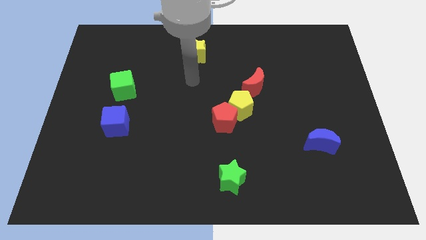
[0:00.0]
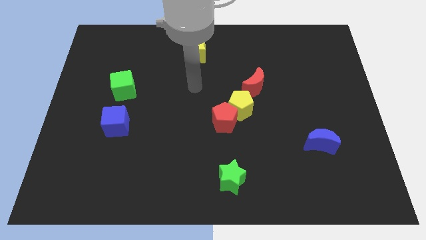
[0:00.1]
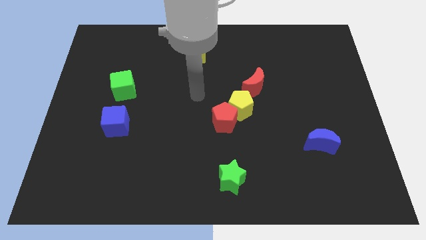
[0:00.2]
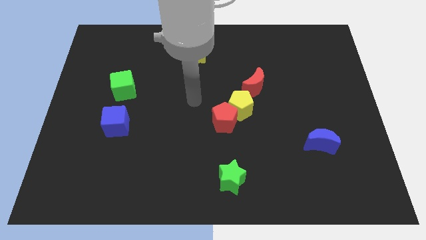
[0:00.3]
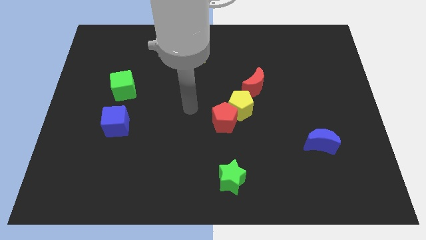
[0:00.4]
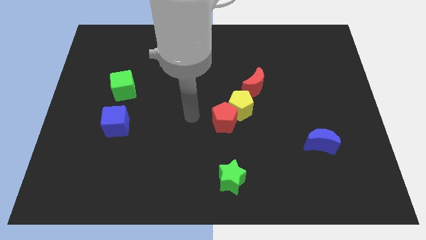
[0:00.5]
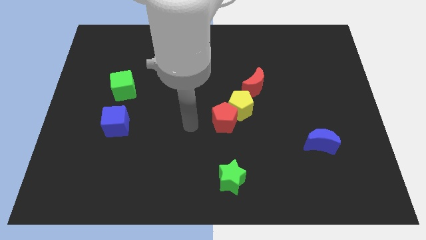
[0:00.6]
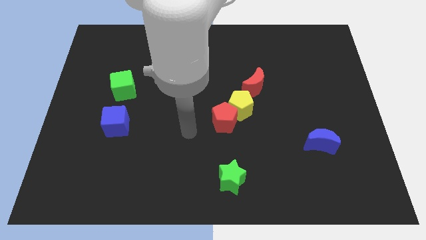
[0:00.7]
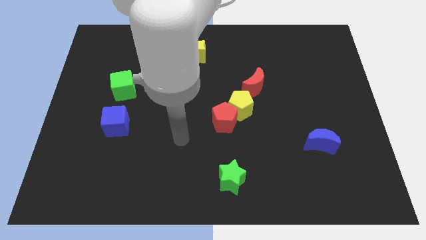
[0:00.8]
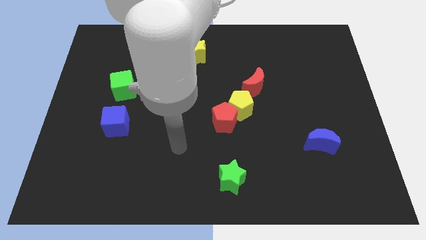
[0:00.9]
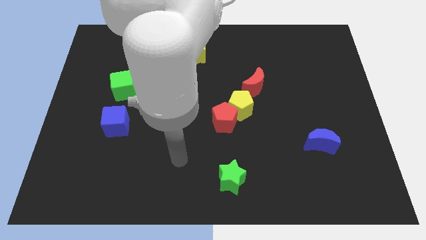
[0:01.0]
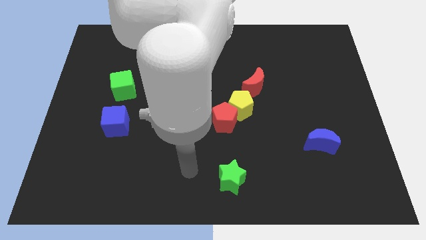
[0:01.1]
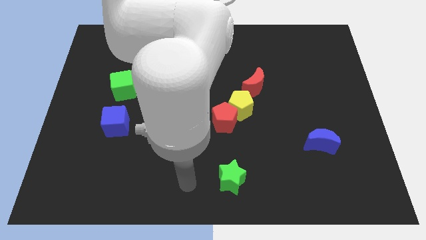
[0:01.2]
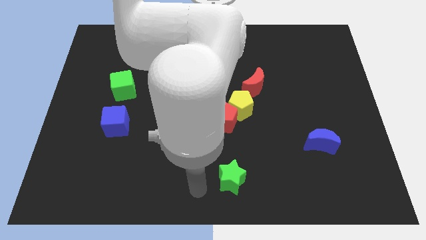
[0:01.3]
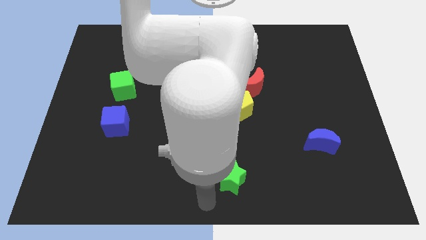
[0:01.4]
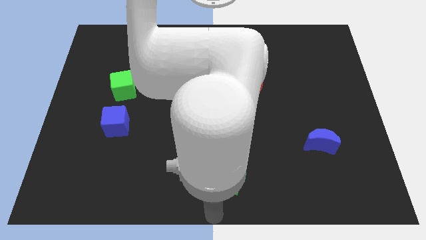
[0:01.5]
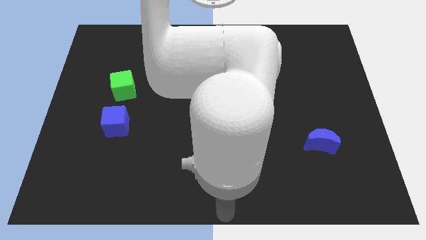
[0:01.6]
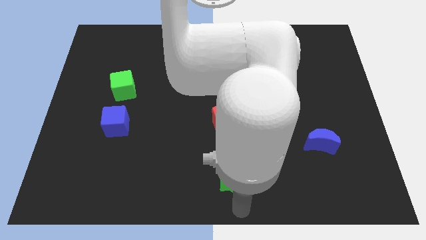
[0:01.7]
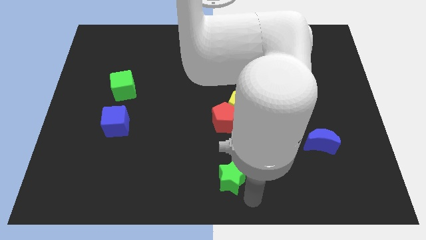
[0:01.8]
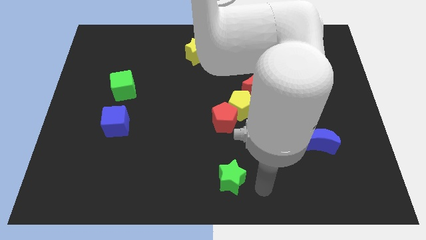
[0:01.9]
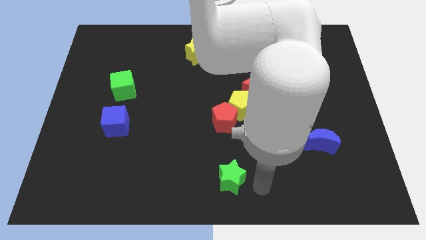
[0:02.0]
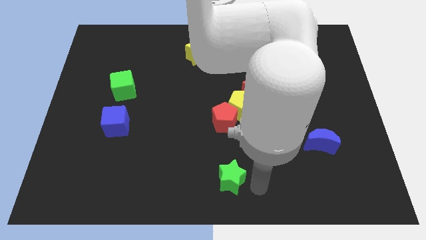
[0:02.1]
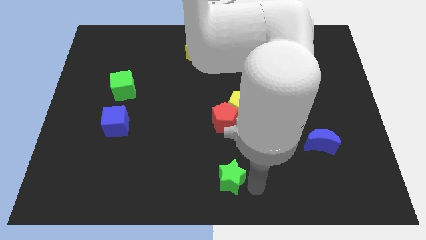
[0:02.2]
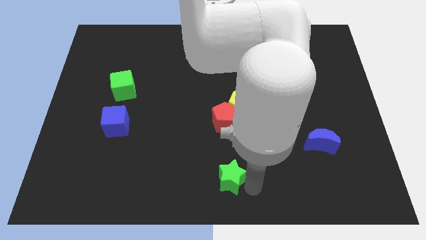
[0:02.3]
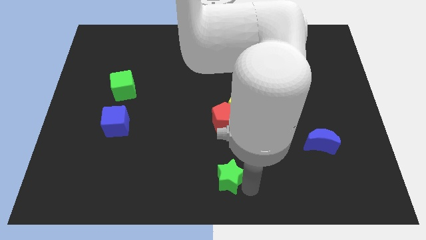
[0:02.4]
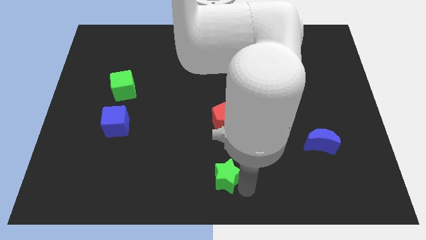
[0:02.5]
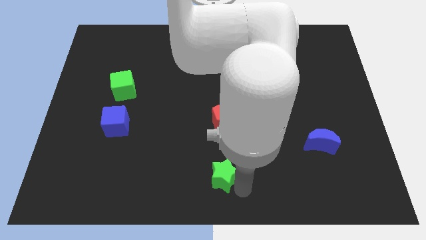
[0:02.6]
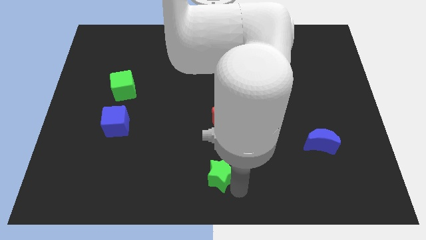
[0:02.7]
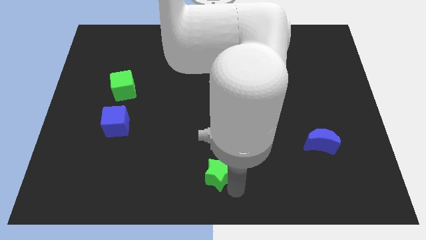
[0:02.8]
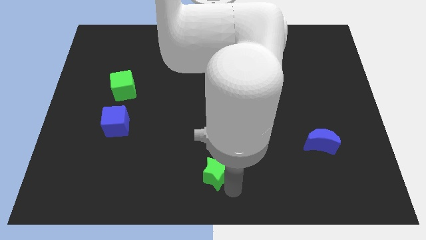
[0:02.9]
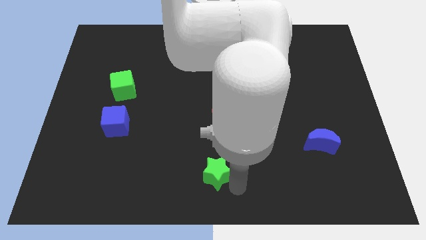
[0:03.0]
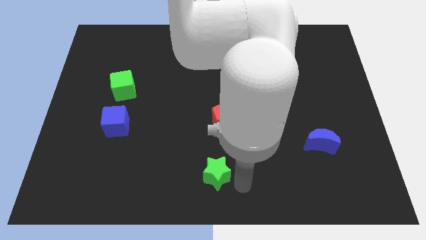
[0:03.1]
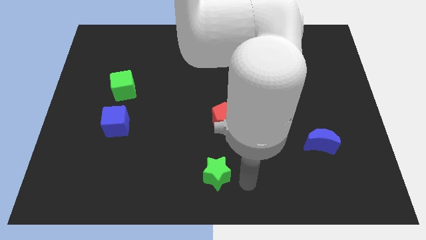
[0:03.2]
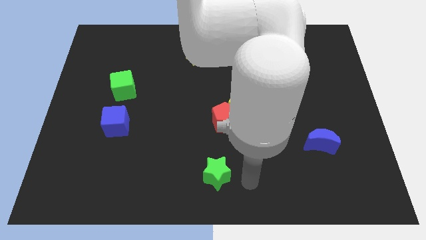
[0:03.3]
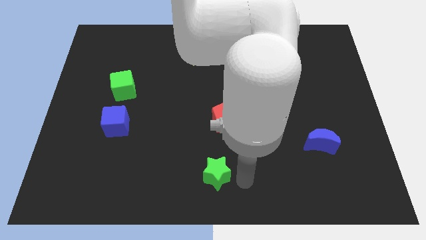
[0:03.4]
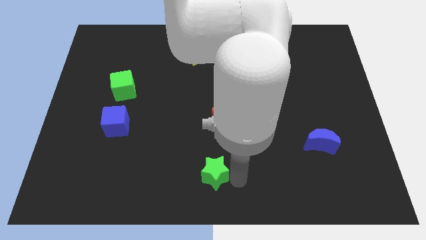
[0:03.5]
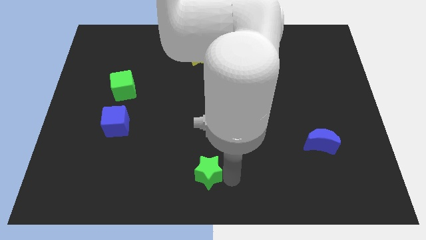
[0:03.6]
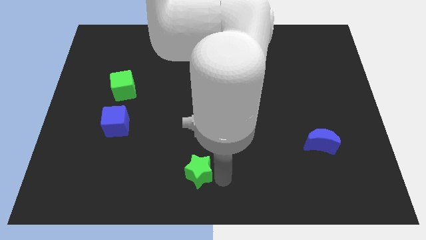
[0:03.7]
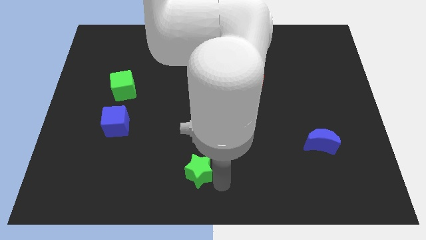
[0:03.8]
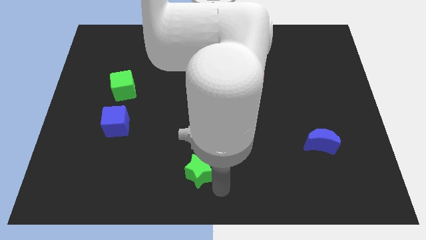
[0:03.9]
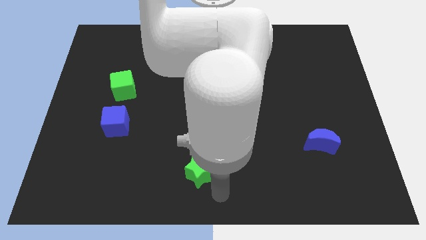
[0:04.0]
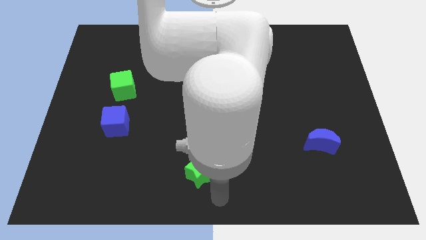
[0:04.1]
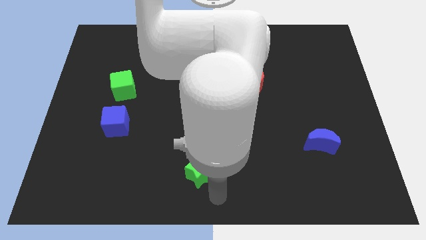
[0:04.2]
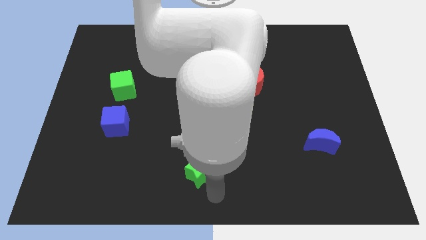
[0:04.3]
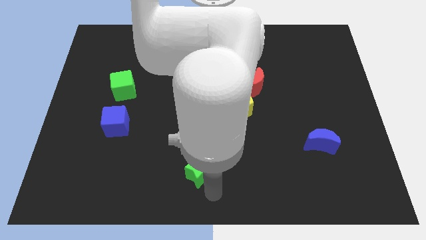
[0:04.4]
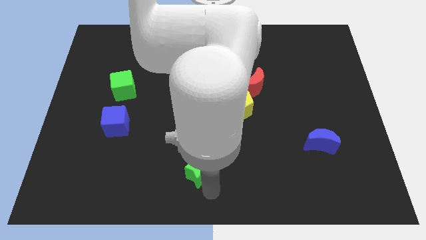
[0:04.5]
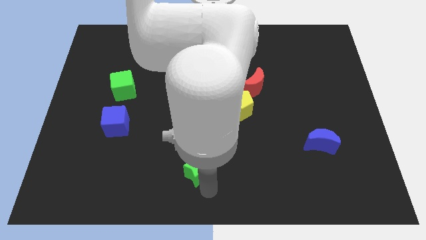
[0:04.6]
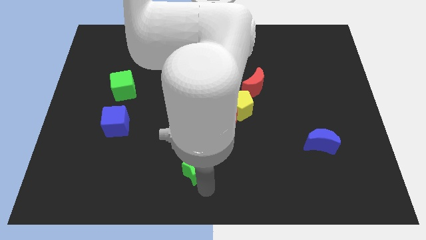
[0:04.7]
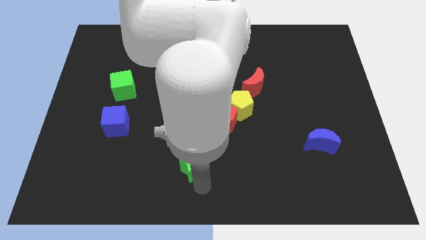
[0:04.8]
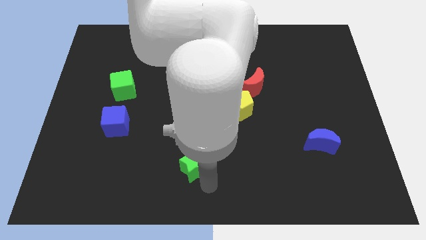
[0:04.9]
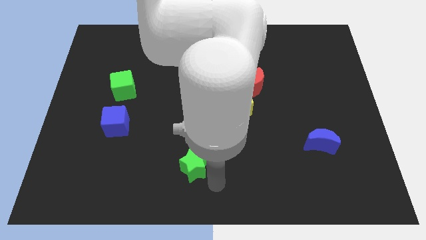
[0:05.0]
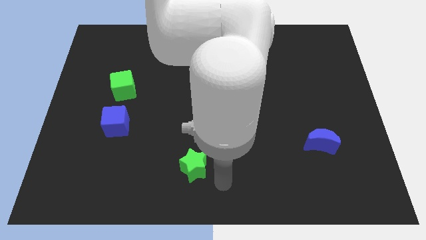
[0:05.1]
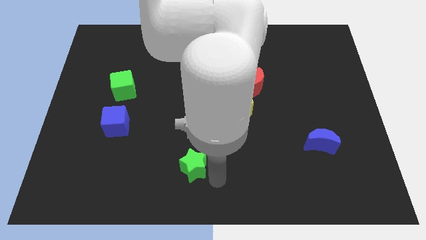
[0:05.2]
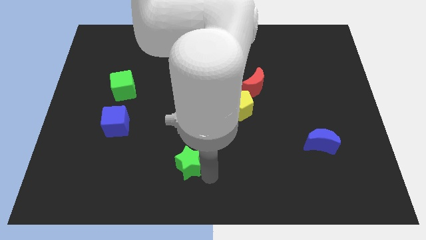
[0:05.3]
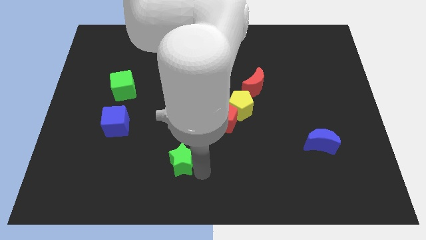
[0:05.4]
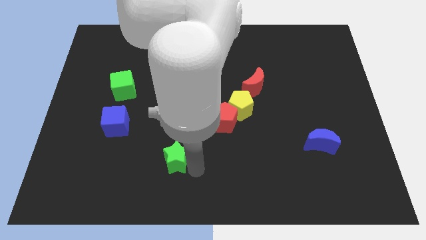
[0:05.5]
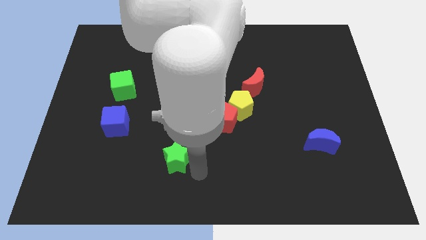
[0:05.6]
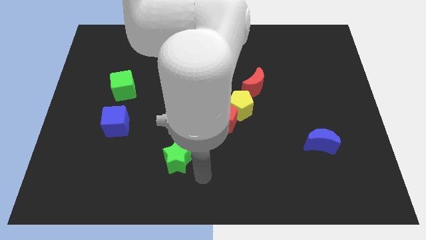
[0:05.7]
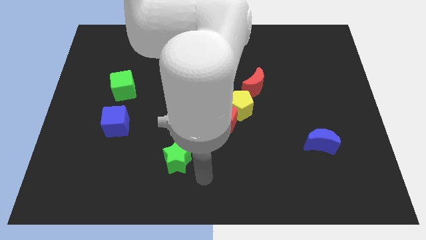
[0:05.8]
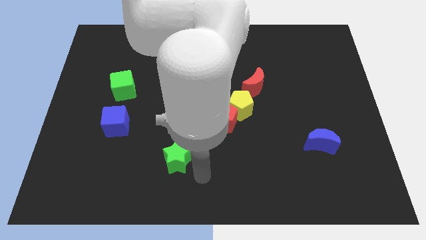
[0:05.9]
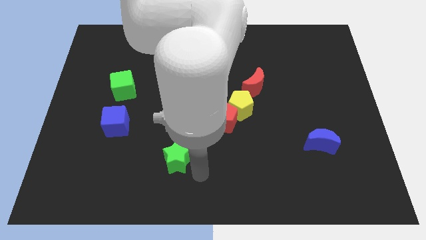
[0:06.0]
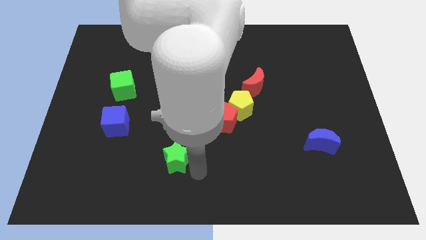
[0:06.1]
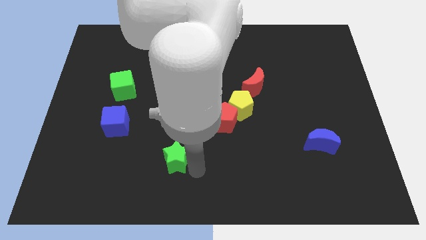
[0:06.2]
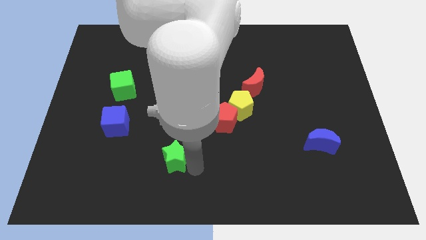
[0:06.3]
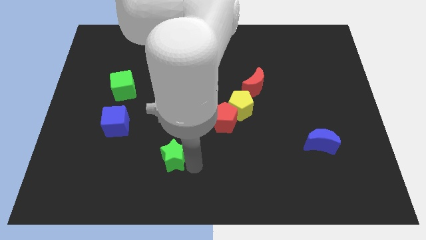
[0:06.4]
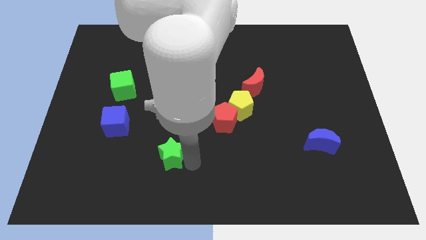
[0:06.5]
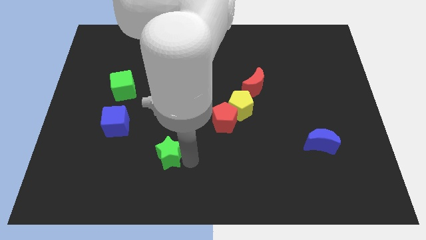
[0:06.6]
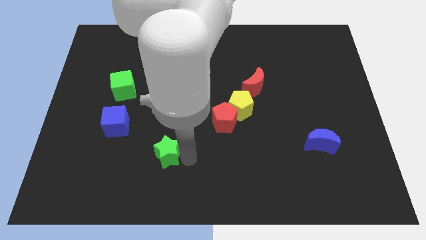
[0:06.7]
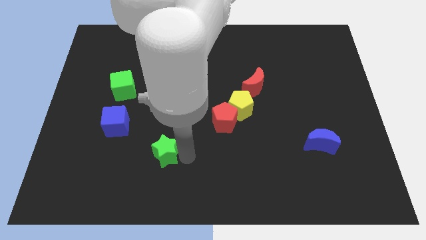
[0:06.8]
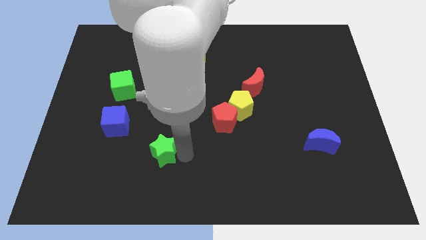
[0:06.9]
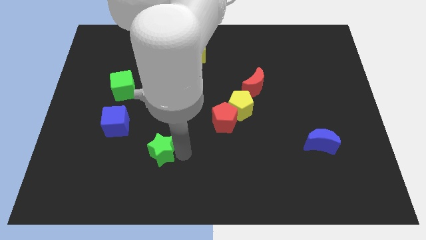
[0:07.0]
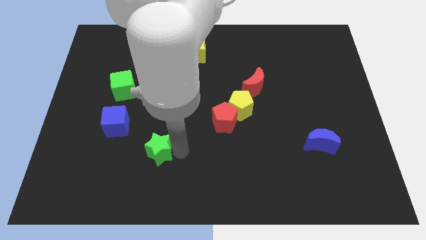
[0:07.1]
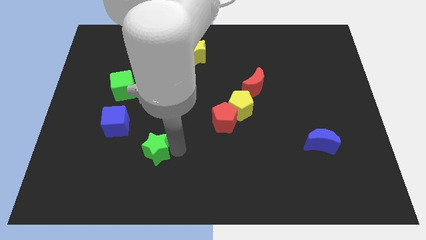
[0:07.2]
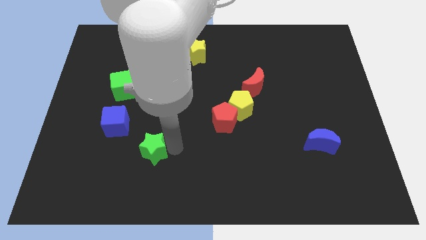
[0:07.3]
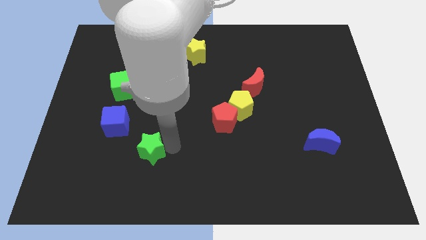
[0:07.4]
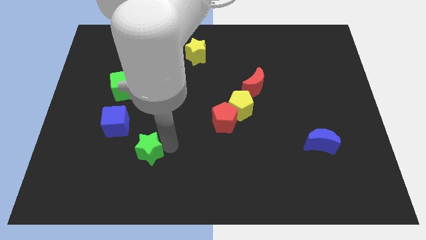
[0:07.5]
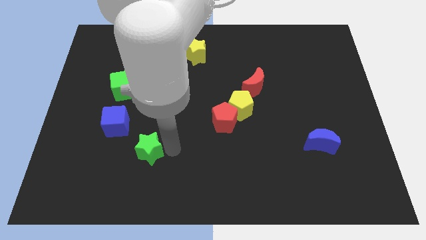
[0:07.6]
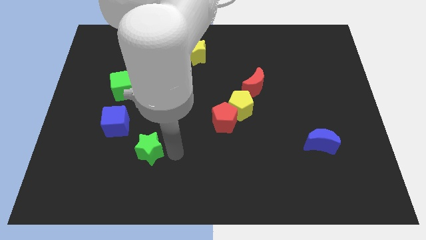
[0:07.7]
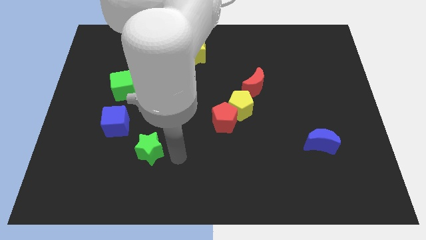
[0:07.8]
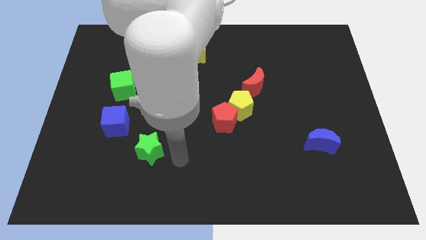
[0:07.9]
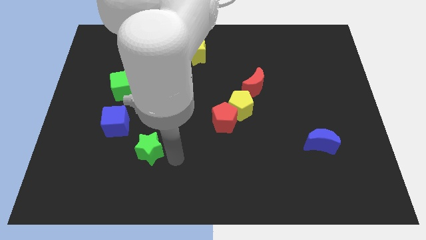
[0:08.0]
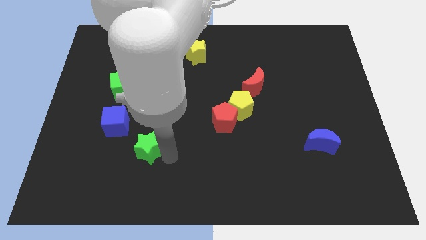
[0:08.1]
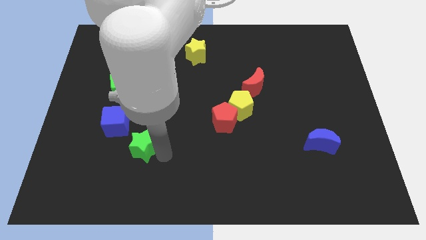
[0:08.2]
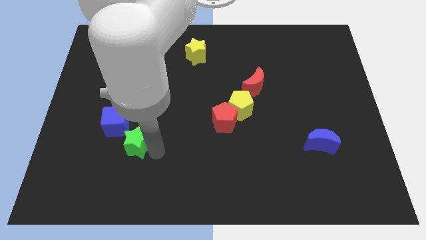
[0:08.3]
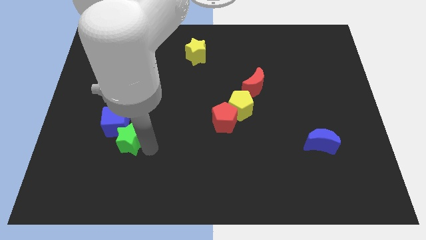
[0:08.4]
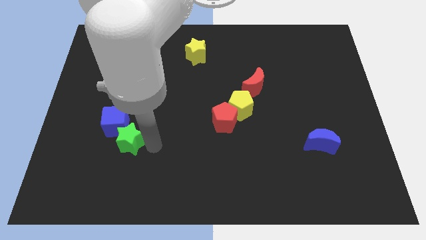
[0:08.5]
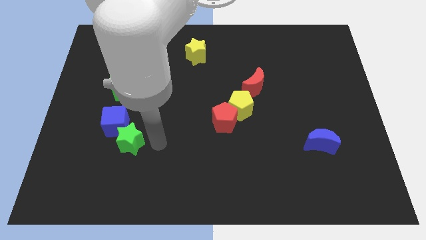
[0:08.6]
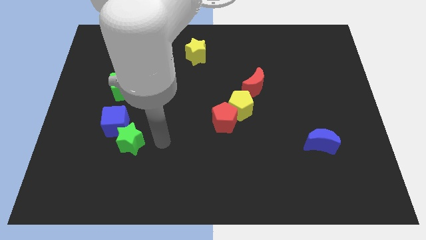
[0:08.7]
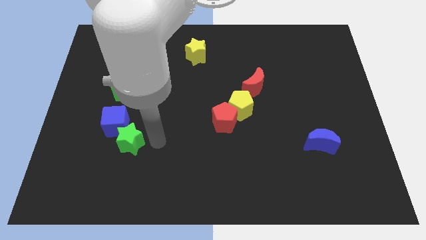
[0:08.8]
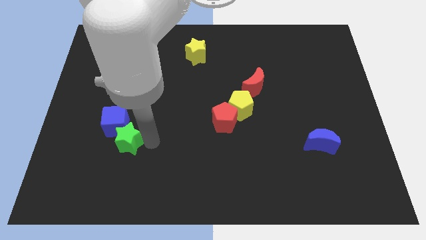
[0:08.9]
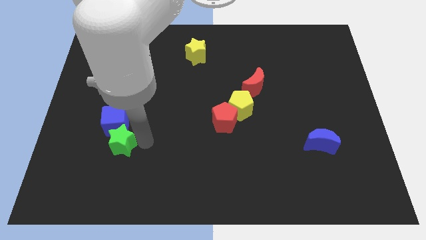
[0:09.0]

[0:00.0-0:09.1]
slide the green star to the bottom side of the green cube
